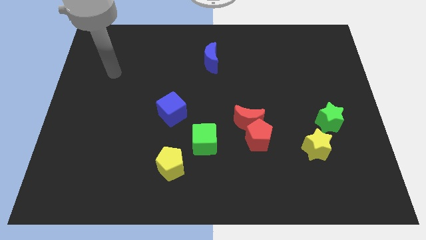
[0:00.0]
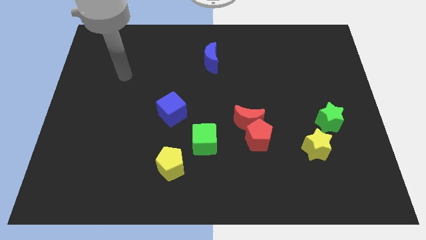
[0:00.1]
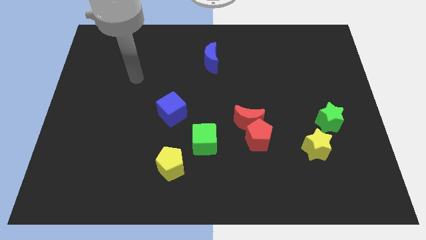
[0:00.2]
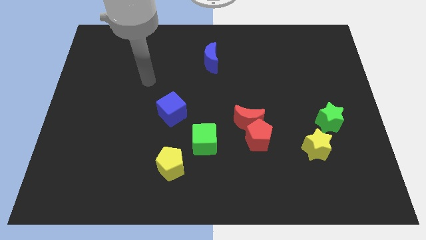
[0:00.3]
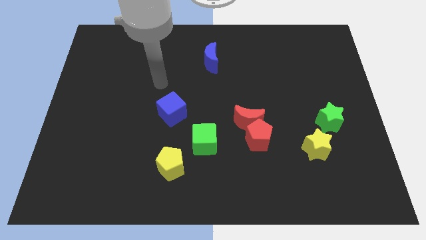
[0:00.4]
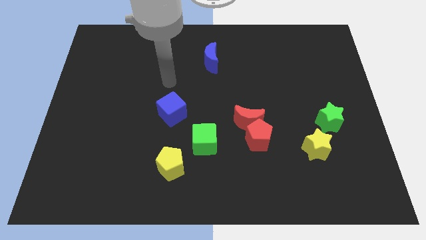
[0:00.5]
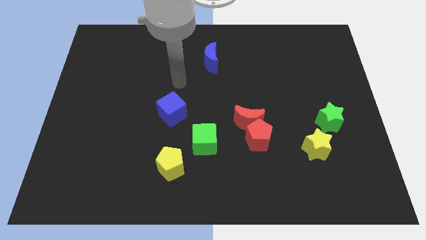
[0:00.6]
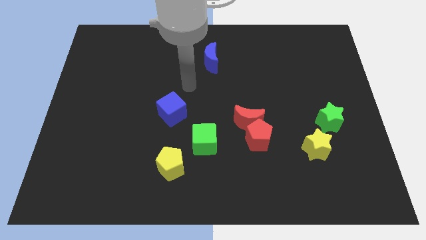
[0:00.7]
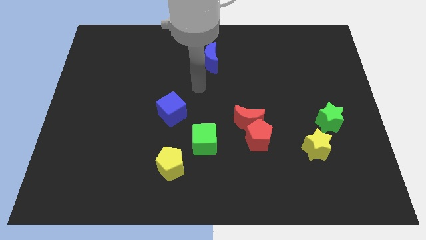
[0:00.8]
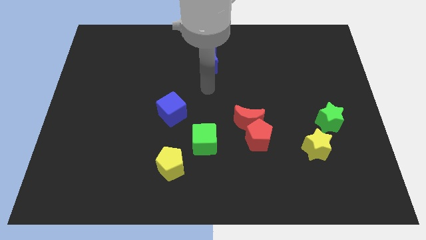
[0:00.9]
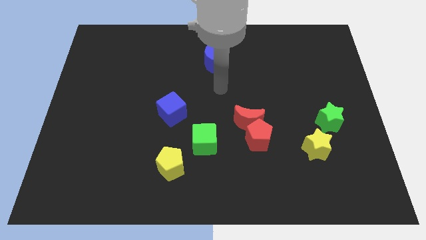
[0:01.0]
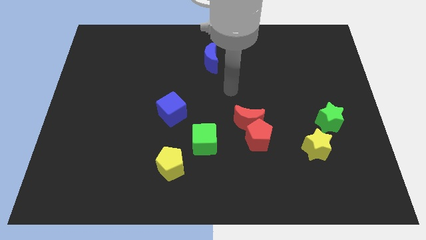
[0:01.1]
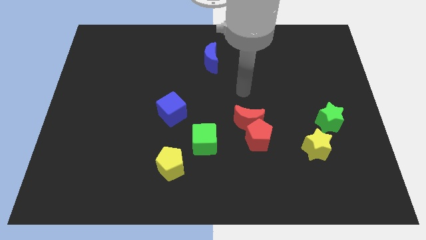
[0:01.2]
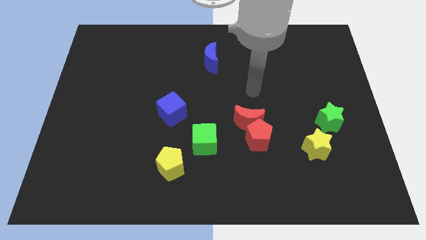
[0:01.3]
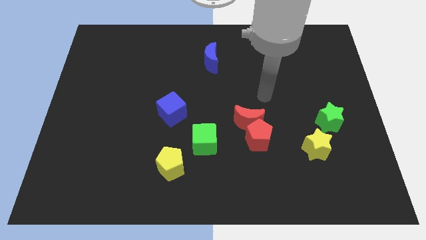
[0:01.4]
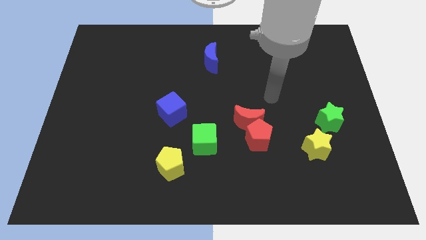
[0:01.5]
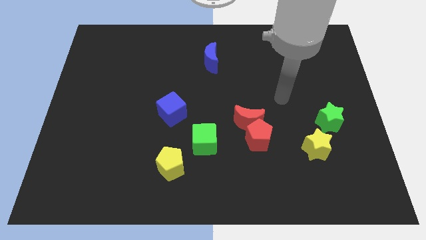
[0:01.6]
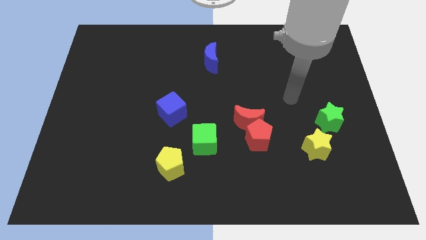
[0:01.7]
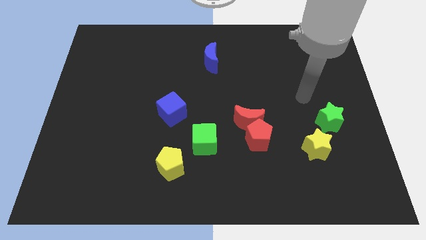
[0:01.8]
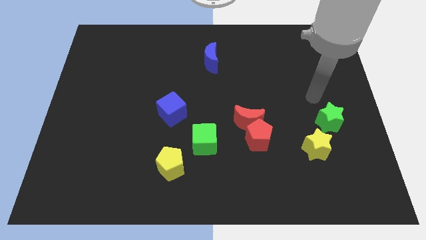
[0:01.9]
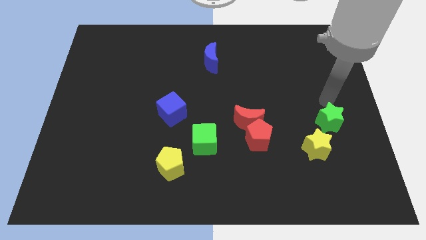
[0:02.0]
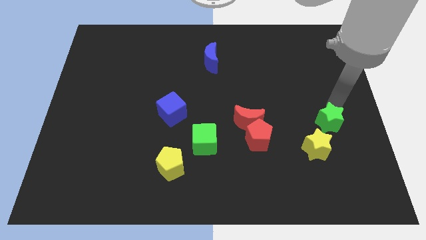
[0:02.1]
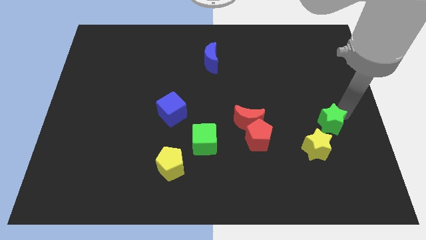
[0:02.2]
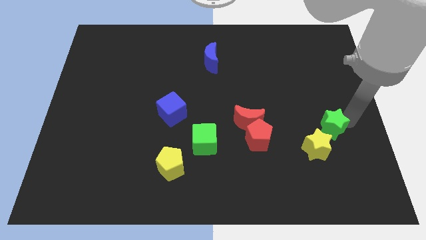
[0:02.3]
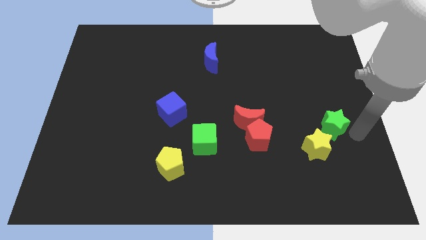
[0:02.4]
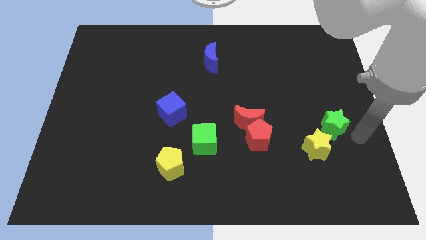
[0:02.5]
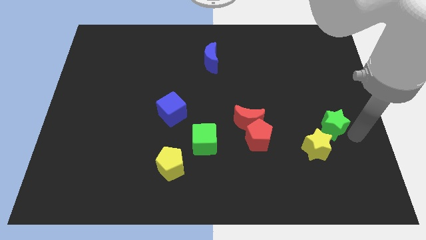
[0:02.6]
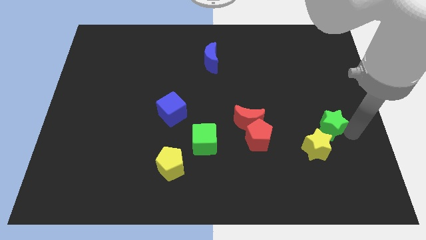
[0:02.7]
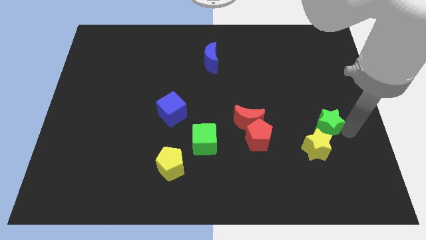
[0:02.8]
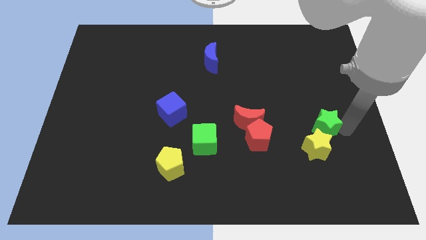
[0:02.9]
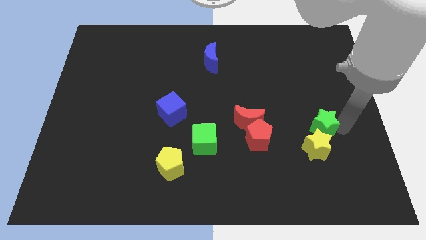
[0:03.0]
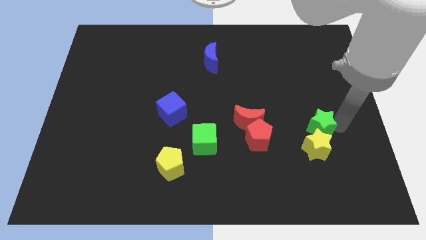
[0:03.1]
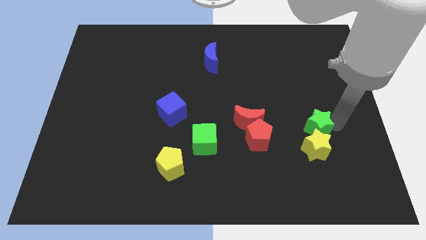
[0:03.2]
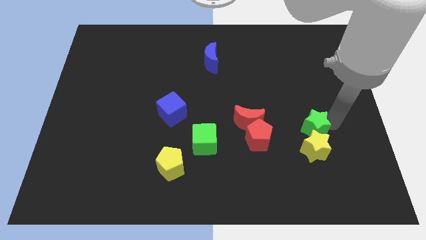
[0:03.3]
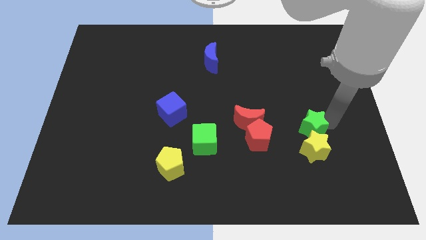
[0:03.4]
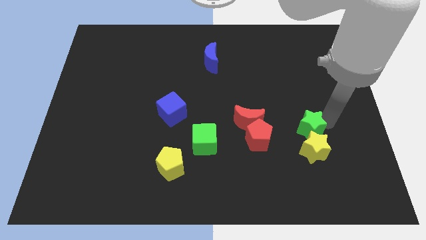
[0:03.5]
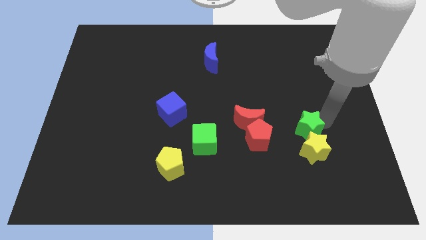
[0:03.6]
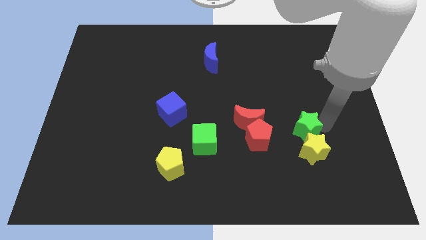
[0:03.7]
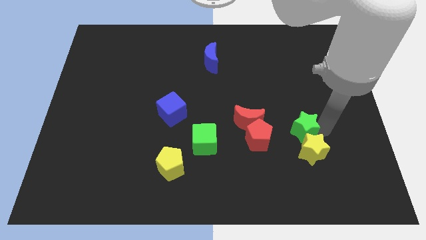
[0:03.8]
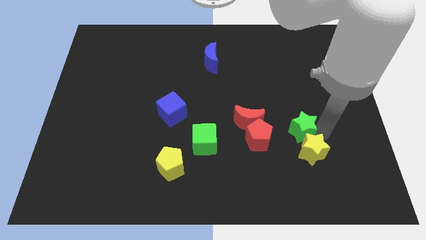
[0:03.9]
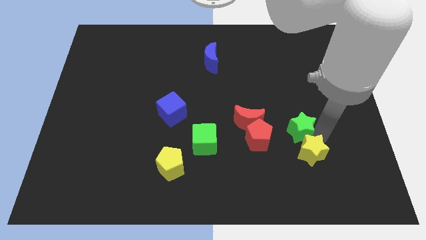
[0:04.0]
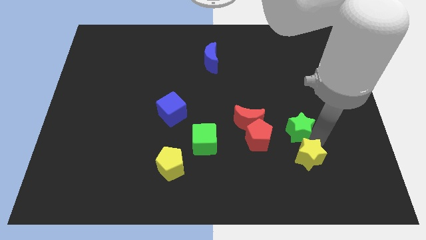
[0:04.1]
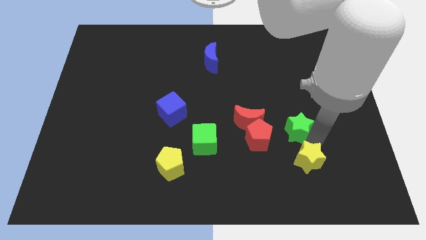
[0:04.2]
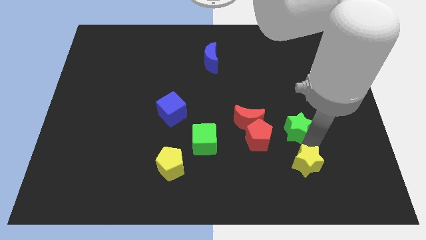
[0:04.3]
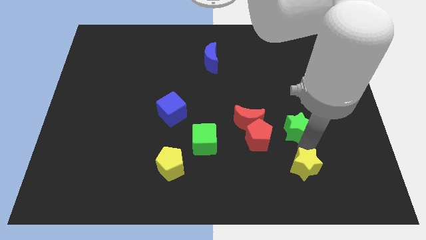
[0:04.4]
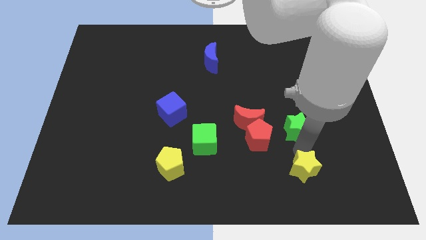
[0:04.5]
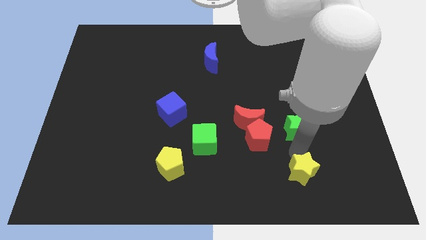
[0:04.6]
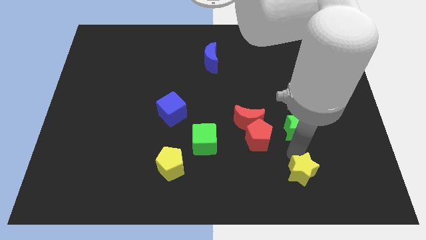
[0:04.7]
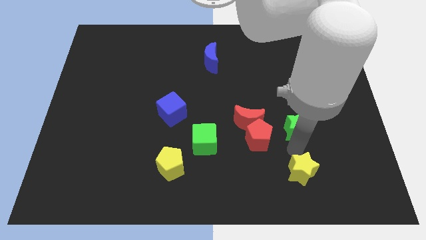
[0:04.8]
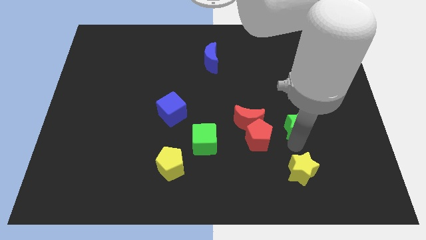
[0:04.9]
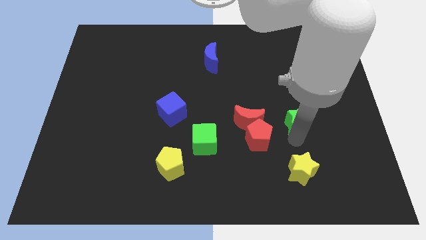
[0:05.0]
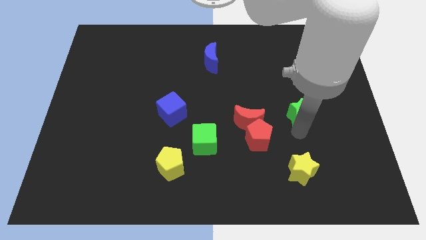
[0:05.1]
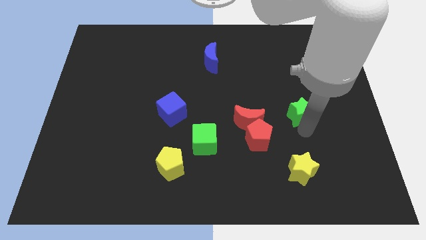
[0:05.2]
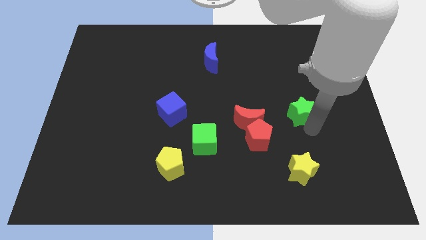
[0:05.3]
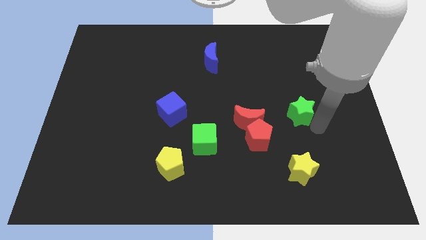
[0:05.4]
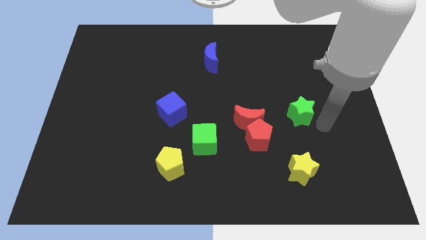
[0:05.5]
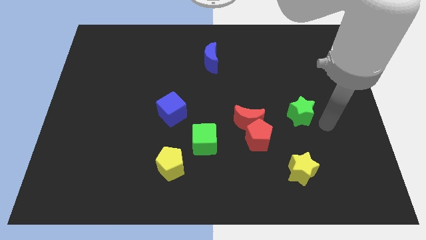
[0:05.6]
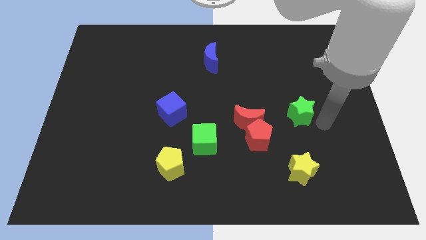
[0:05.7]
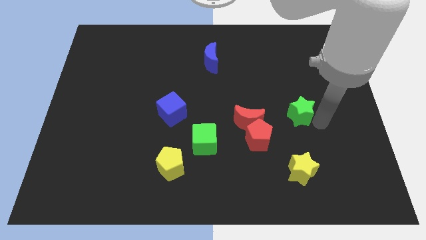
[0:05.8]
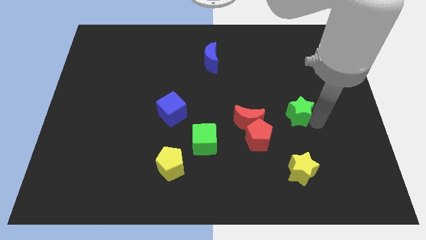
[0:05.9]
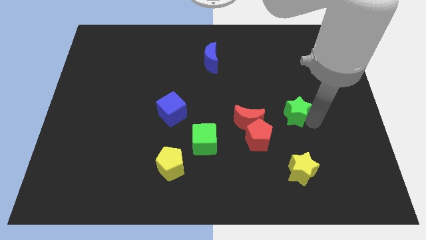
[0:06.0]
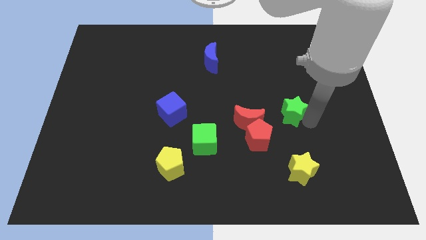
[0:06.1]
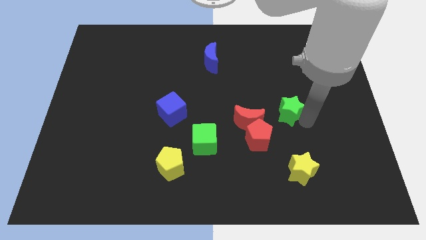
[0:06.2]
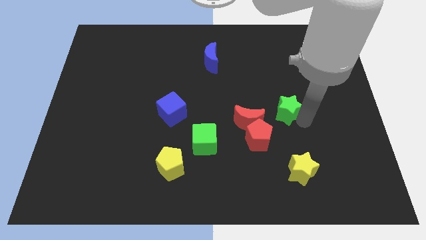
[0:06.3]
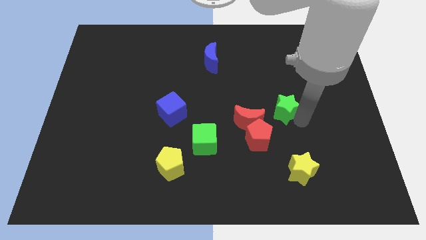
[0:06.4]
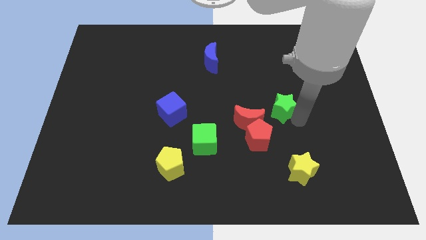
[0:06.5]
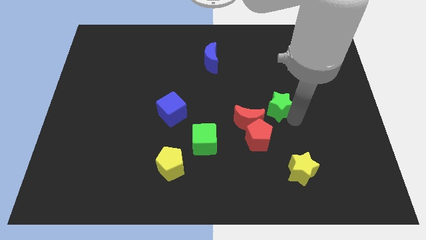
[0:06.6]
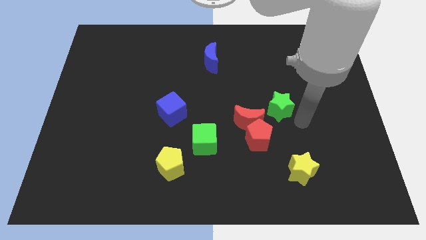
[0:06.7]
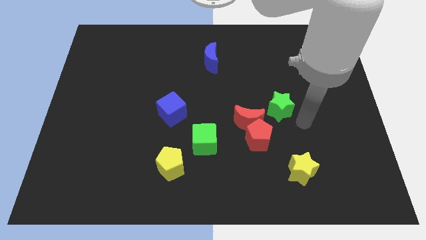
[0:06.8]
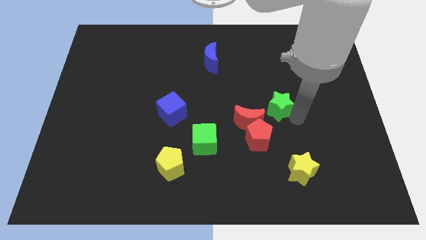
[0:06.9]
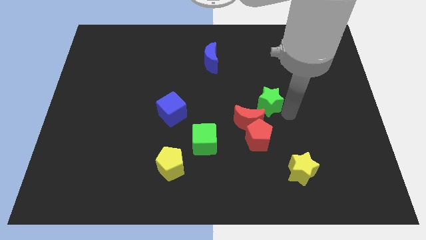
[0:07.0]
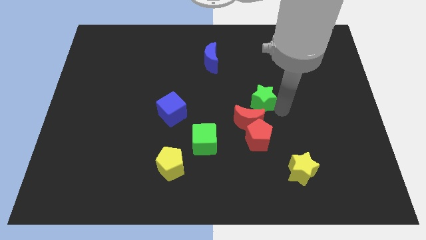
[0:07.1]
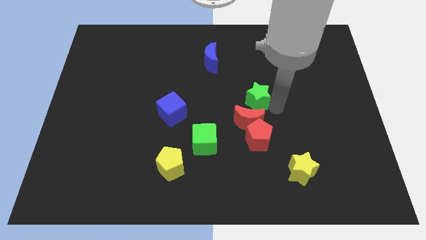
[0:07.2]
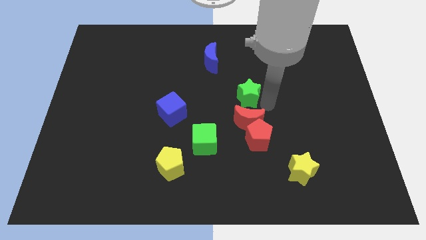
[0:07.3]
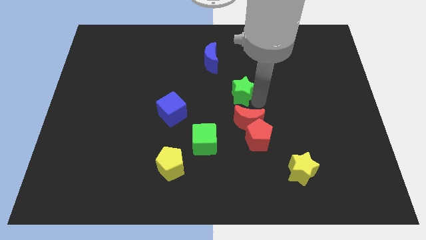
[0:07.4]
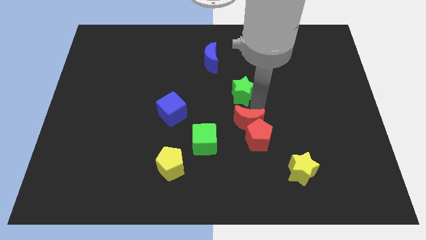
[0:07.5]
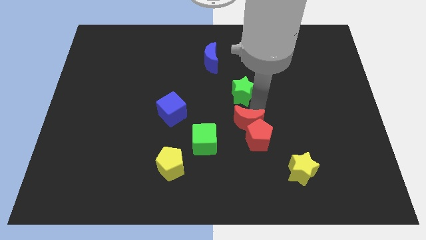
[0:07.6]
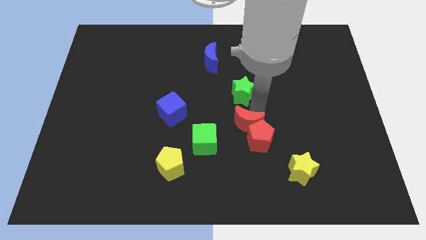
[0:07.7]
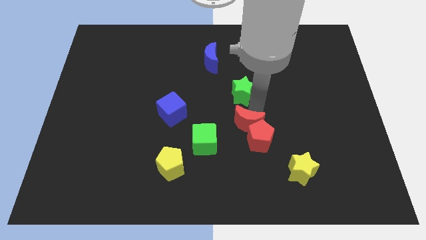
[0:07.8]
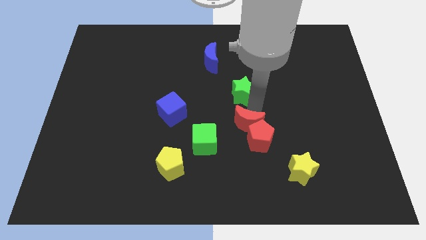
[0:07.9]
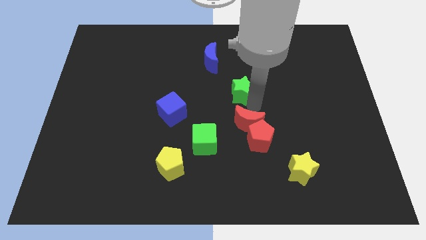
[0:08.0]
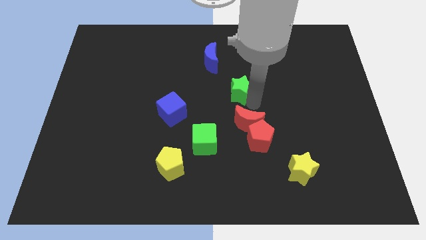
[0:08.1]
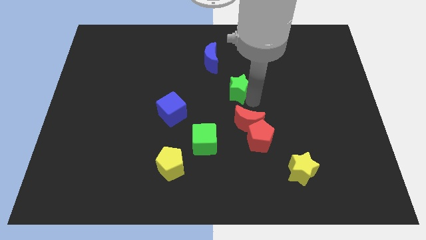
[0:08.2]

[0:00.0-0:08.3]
put the green star to the bottom right side of the blue moon
